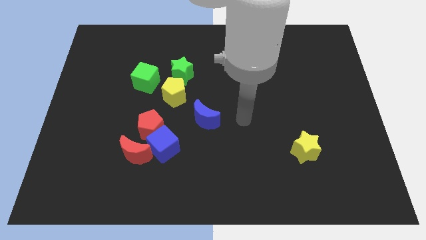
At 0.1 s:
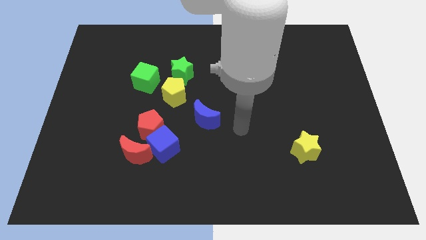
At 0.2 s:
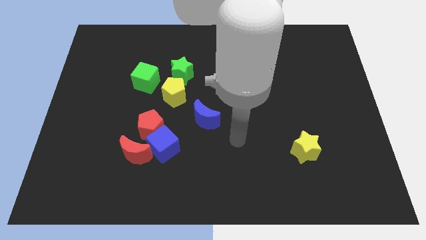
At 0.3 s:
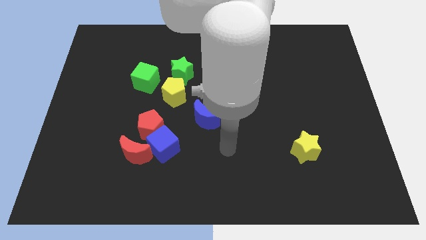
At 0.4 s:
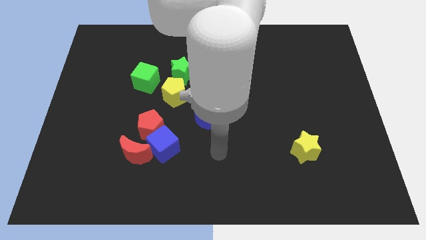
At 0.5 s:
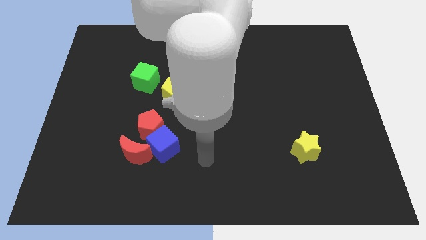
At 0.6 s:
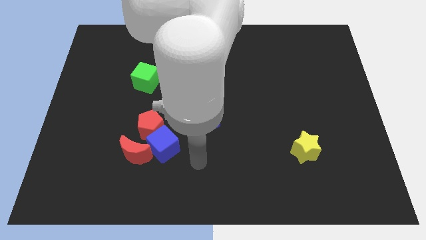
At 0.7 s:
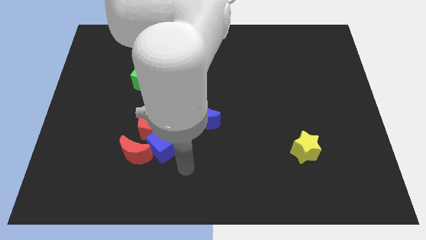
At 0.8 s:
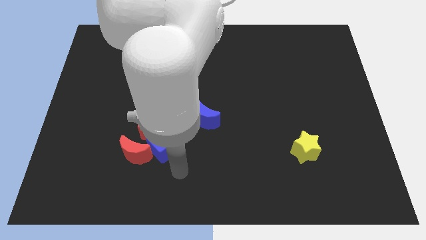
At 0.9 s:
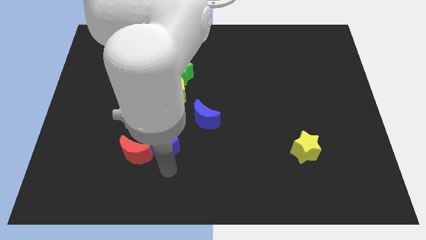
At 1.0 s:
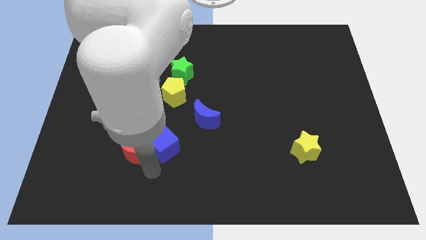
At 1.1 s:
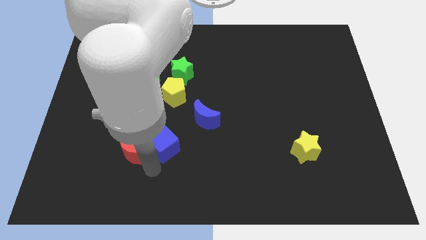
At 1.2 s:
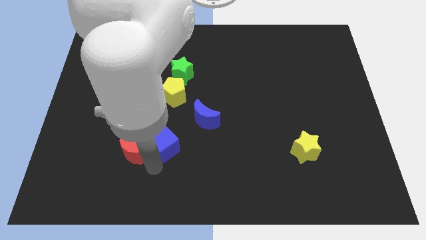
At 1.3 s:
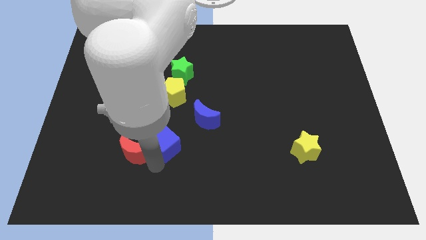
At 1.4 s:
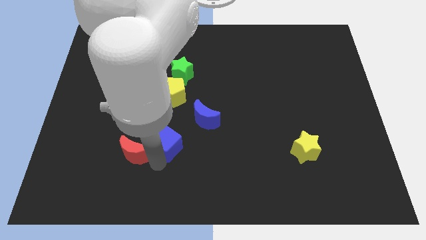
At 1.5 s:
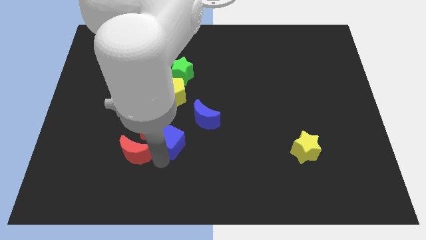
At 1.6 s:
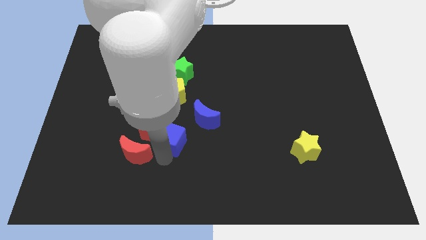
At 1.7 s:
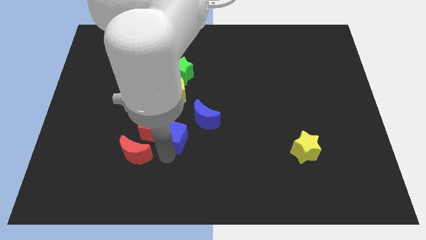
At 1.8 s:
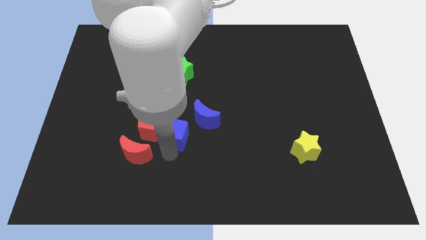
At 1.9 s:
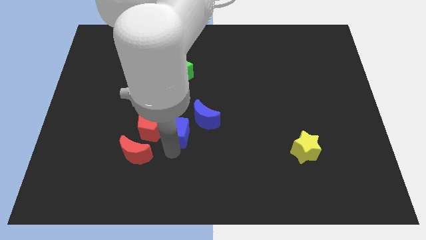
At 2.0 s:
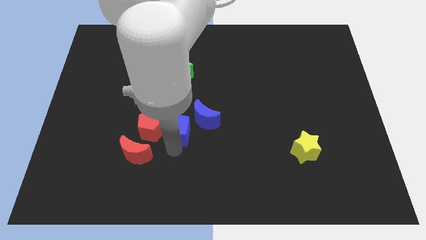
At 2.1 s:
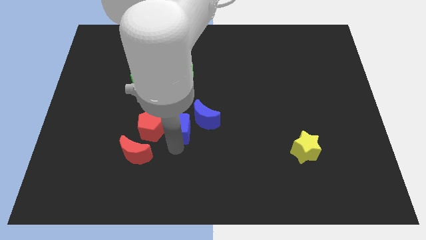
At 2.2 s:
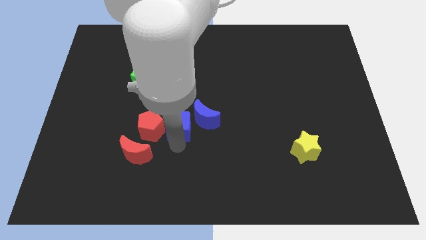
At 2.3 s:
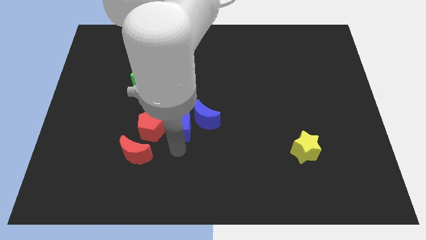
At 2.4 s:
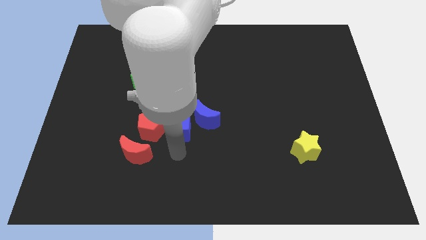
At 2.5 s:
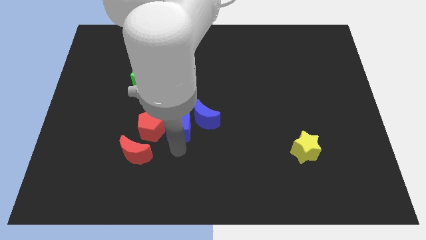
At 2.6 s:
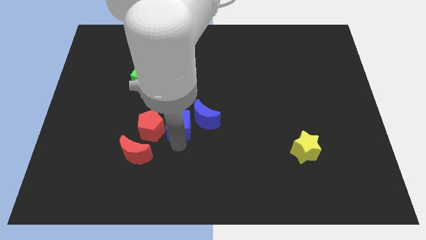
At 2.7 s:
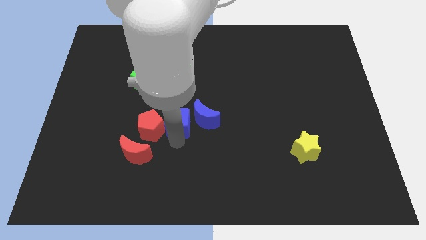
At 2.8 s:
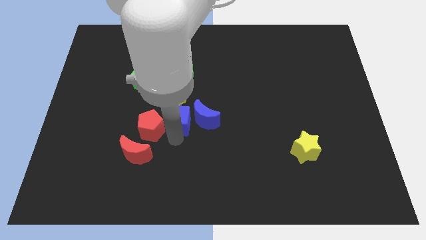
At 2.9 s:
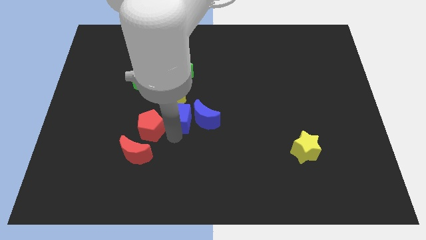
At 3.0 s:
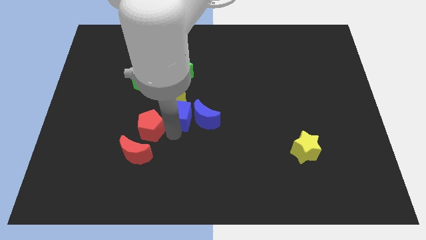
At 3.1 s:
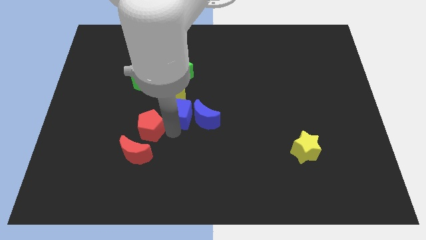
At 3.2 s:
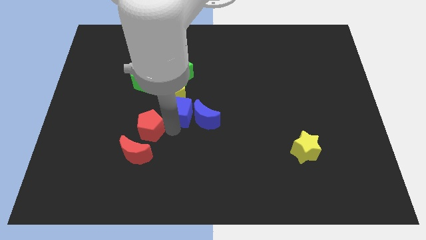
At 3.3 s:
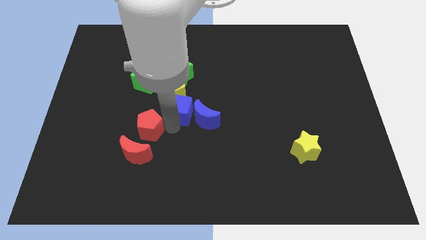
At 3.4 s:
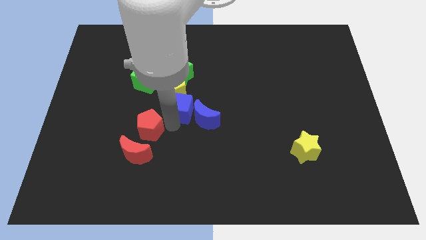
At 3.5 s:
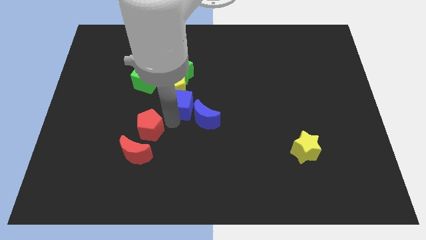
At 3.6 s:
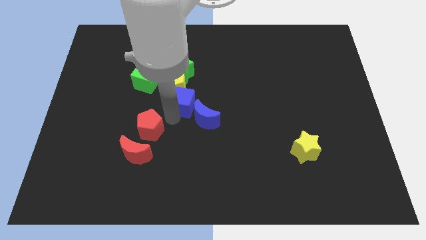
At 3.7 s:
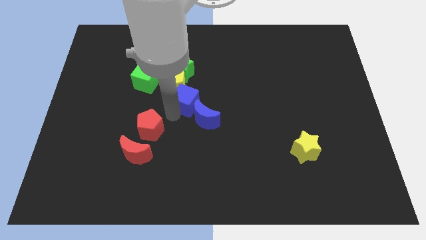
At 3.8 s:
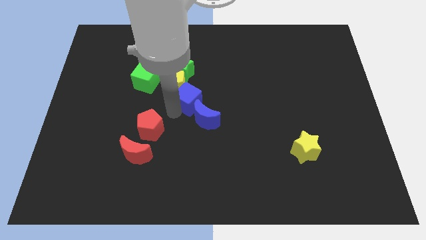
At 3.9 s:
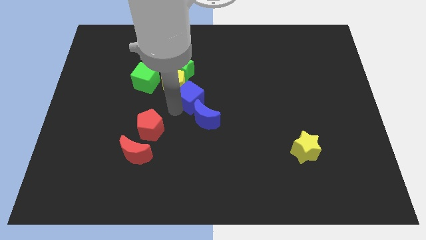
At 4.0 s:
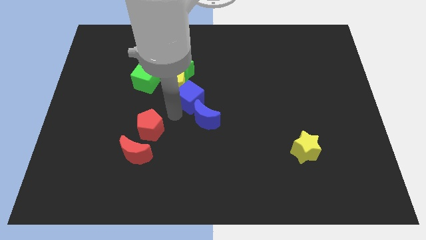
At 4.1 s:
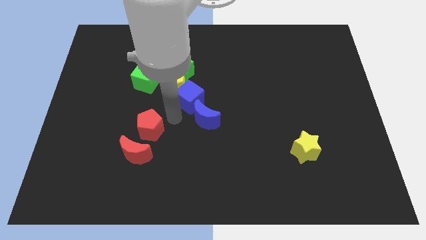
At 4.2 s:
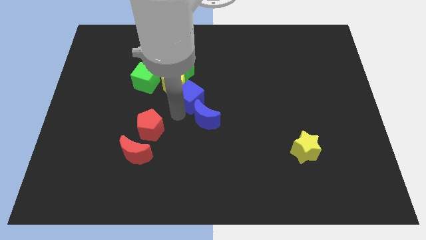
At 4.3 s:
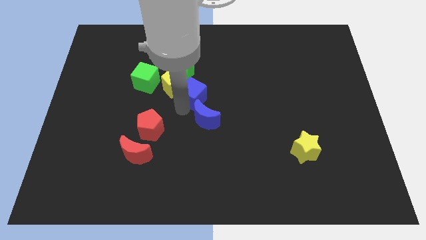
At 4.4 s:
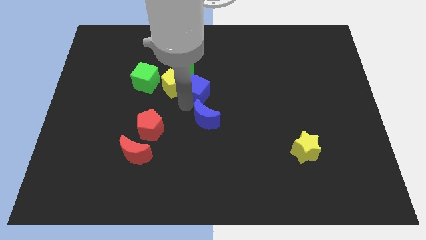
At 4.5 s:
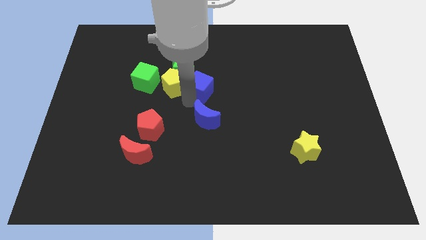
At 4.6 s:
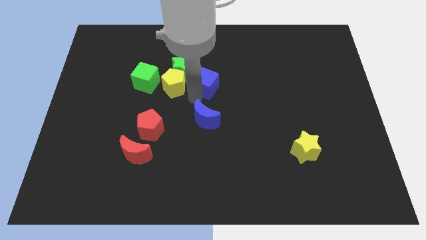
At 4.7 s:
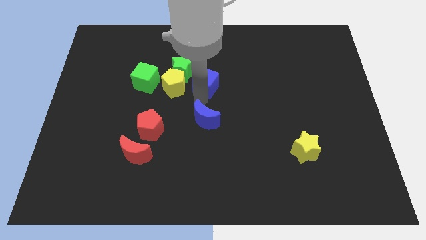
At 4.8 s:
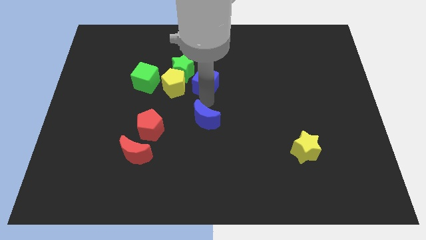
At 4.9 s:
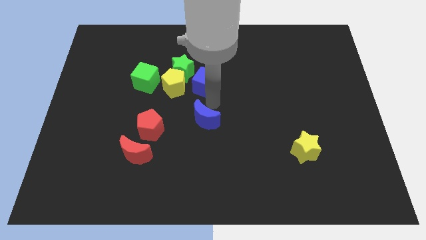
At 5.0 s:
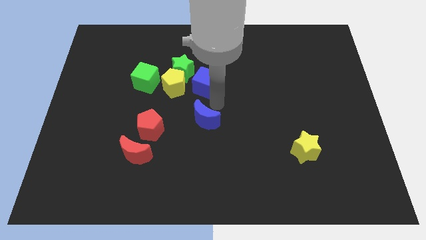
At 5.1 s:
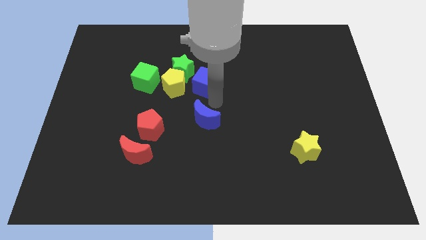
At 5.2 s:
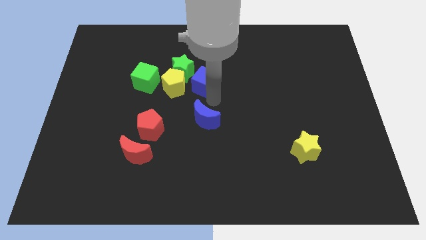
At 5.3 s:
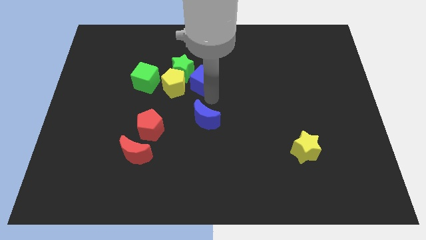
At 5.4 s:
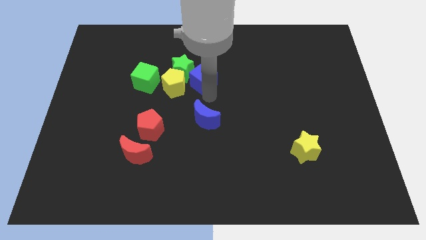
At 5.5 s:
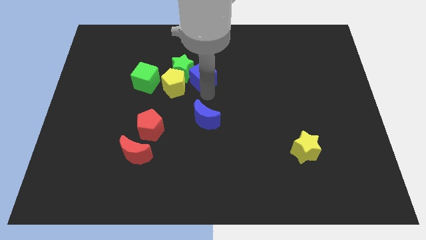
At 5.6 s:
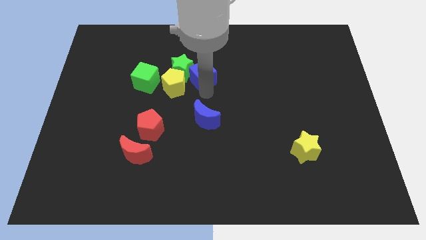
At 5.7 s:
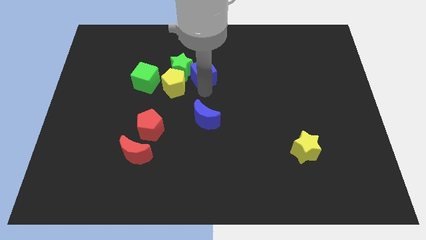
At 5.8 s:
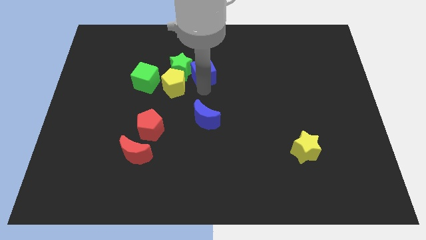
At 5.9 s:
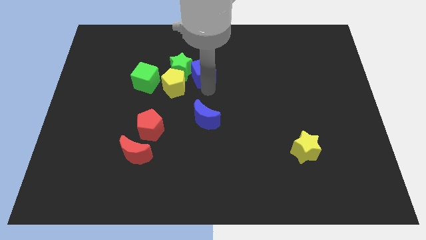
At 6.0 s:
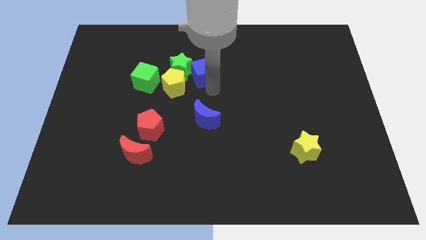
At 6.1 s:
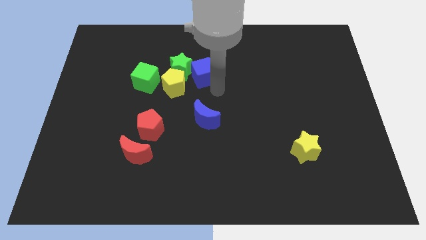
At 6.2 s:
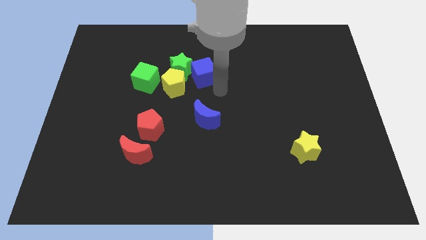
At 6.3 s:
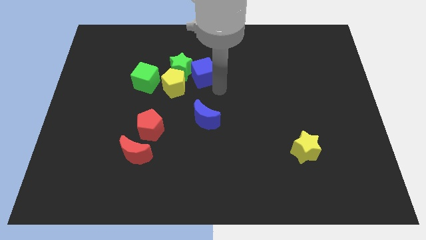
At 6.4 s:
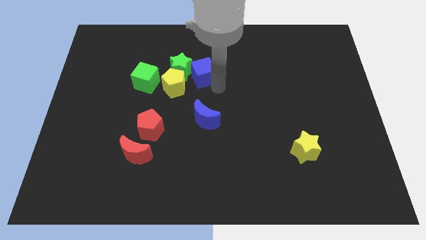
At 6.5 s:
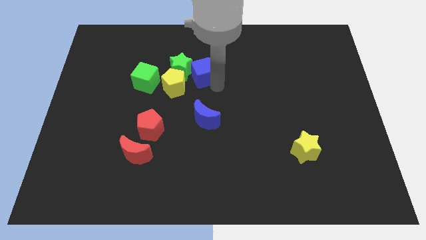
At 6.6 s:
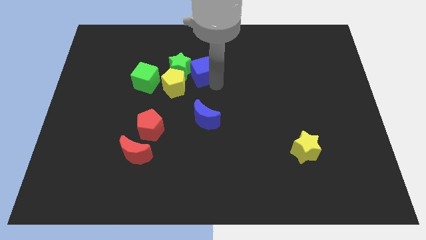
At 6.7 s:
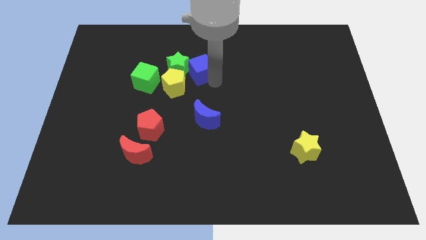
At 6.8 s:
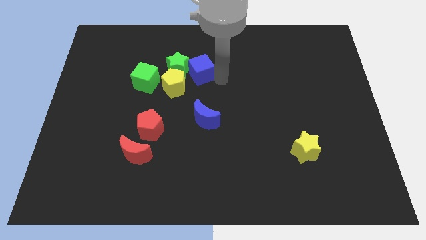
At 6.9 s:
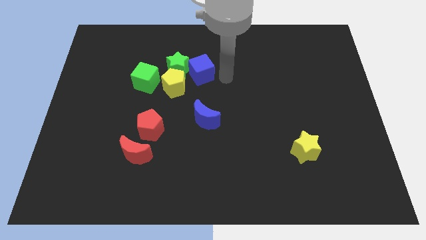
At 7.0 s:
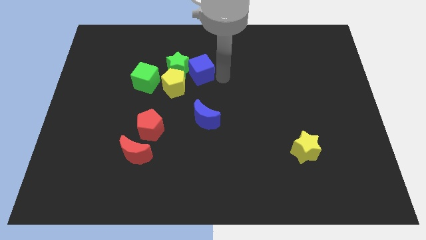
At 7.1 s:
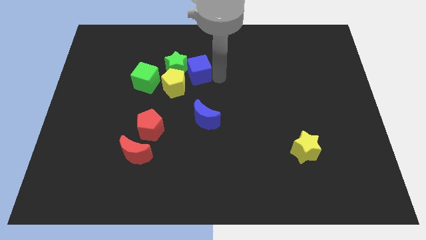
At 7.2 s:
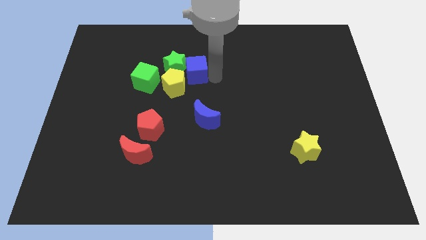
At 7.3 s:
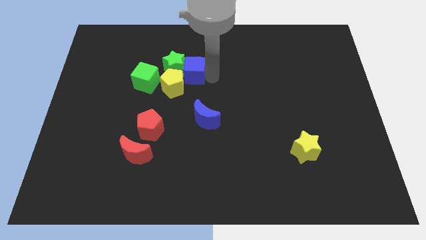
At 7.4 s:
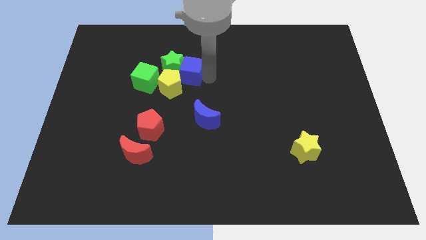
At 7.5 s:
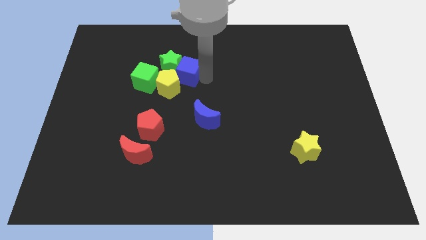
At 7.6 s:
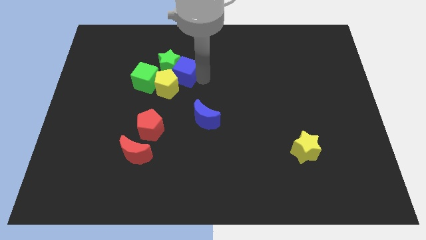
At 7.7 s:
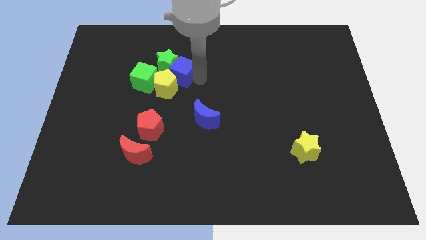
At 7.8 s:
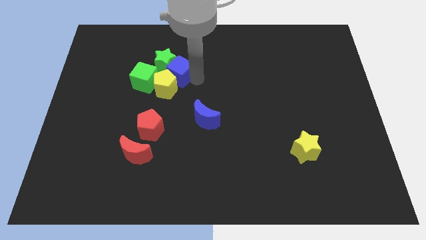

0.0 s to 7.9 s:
move the blue cube to the top right side of the green cube

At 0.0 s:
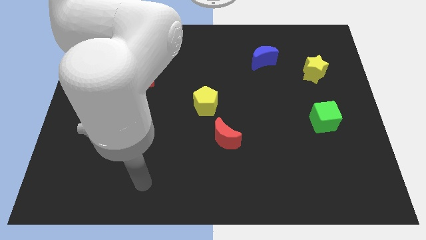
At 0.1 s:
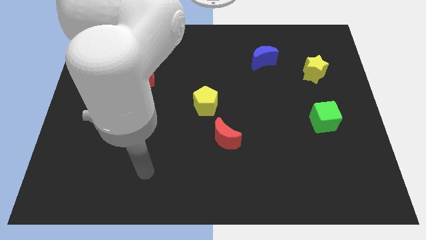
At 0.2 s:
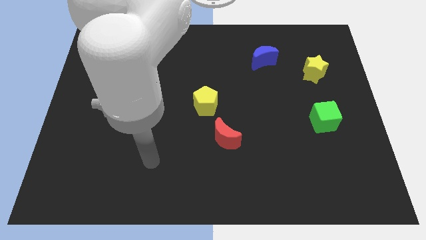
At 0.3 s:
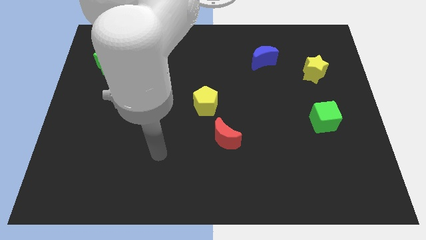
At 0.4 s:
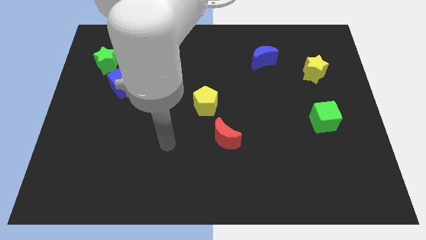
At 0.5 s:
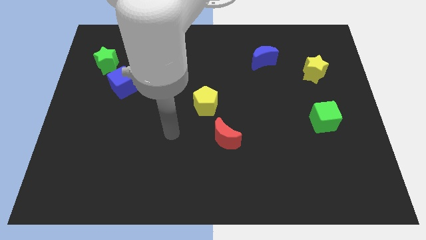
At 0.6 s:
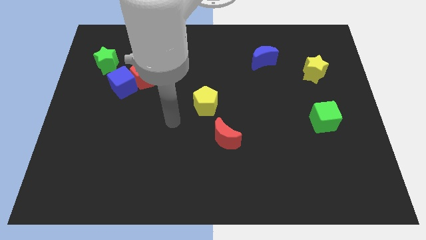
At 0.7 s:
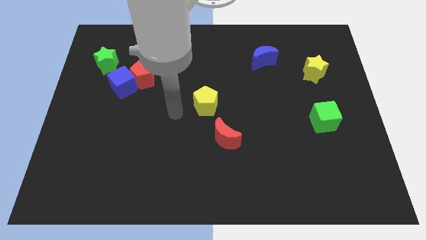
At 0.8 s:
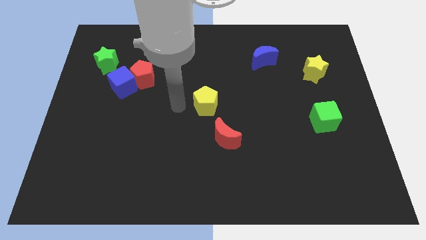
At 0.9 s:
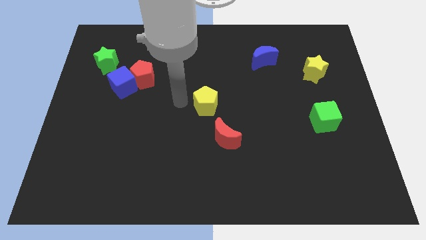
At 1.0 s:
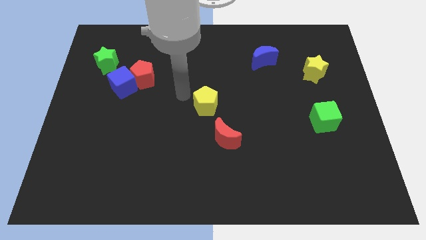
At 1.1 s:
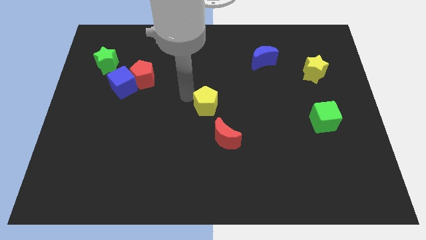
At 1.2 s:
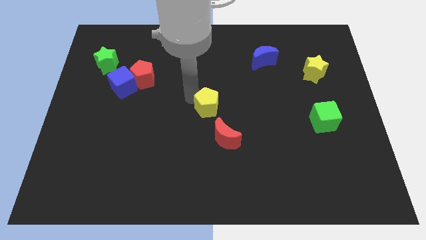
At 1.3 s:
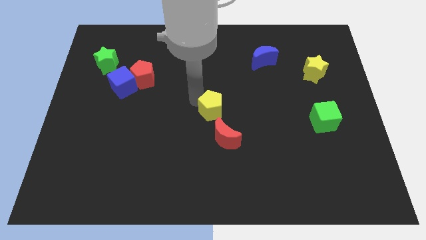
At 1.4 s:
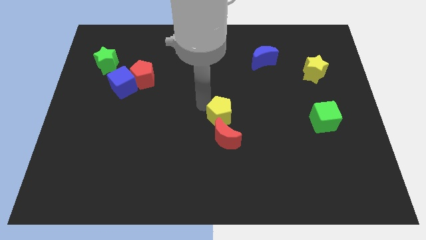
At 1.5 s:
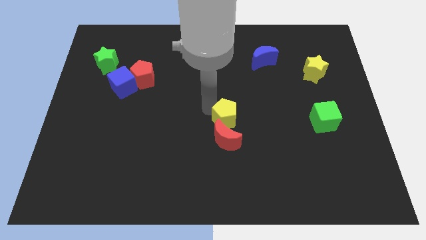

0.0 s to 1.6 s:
push the yellow pentagon to the top right side of the red moon
